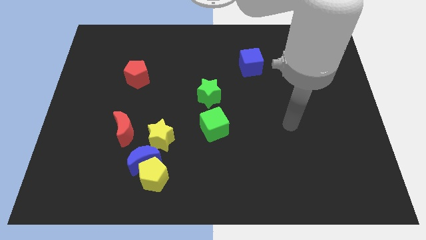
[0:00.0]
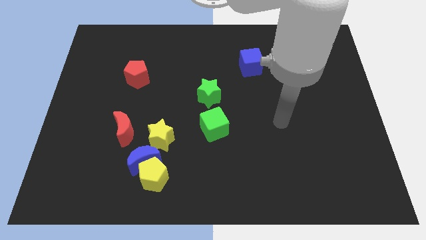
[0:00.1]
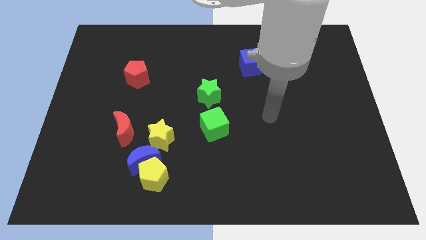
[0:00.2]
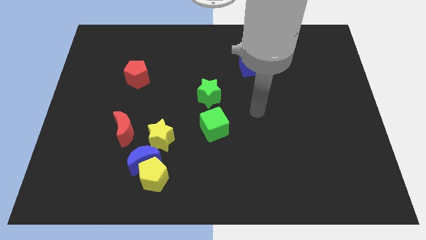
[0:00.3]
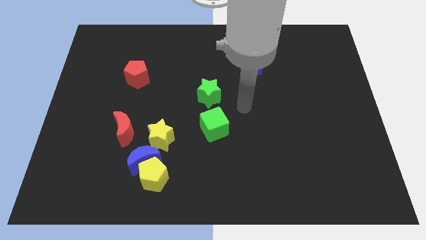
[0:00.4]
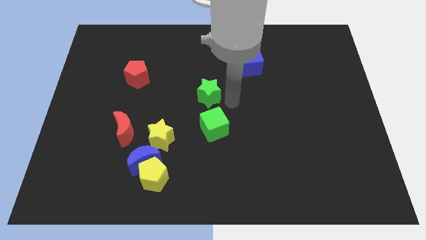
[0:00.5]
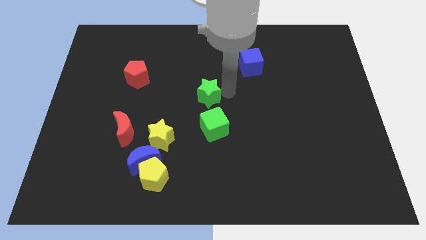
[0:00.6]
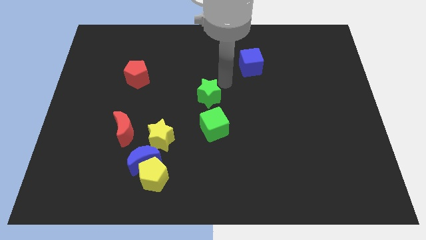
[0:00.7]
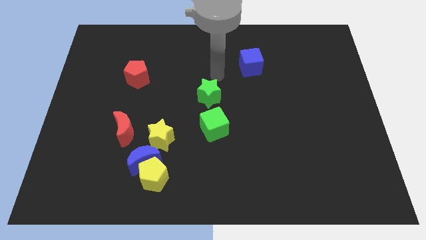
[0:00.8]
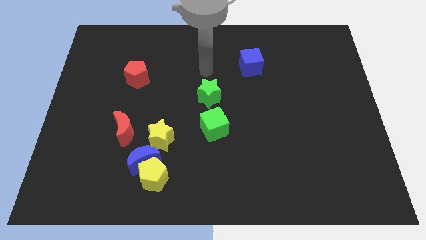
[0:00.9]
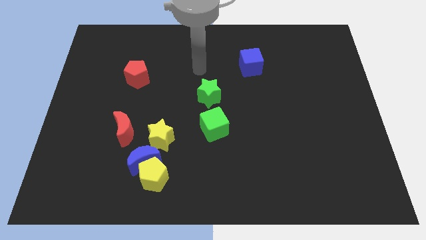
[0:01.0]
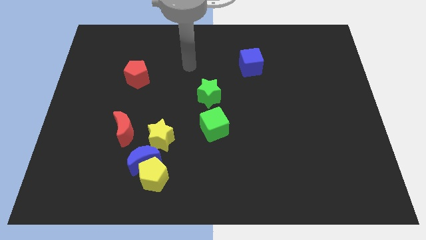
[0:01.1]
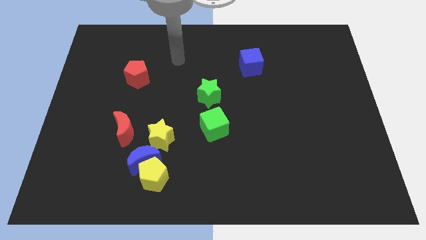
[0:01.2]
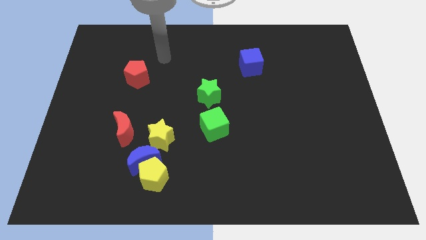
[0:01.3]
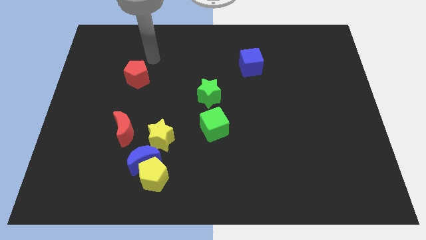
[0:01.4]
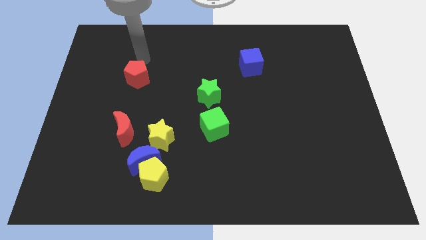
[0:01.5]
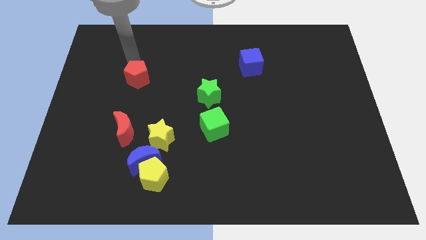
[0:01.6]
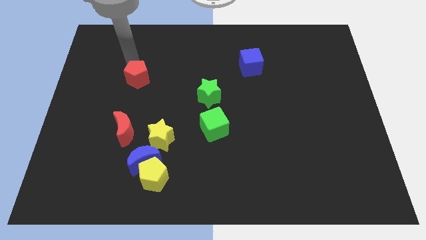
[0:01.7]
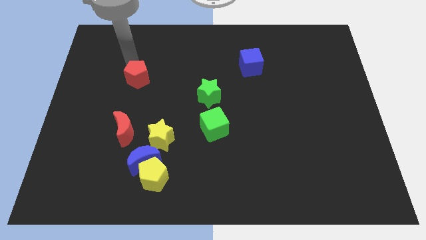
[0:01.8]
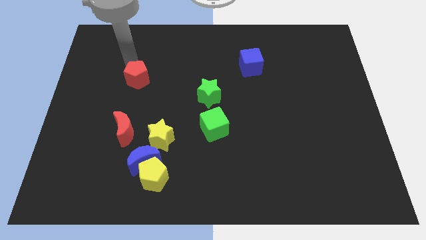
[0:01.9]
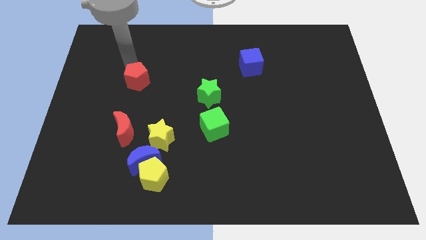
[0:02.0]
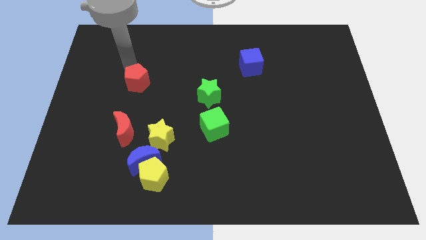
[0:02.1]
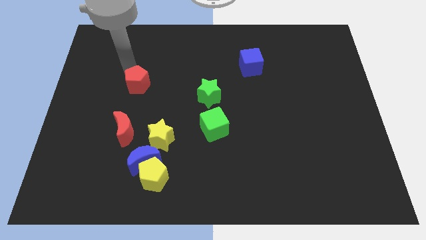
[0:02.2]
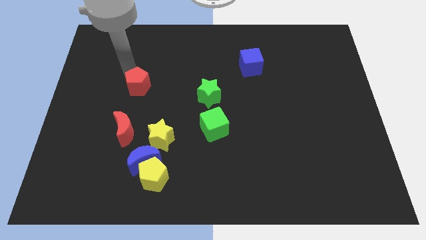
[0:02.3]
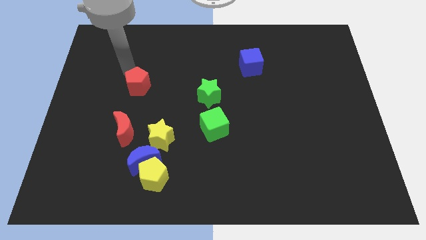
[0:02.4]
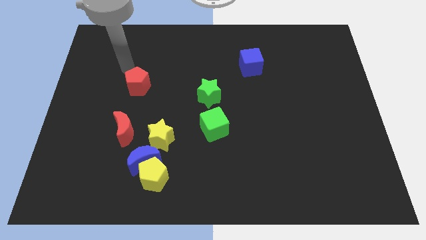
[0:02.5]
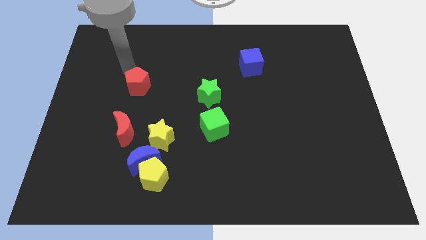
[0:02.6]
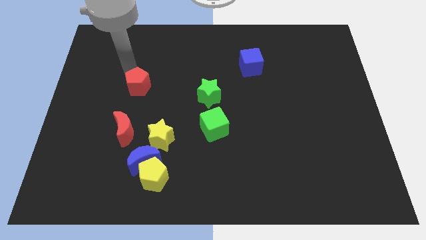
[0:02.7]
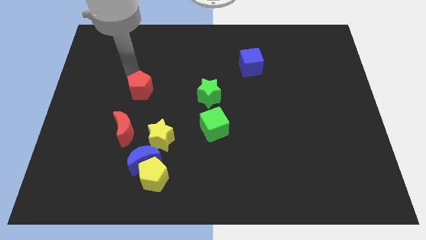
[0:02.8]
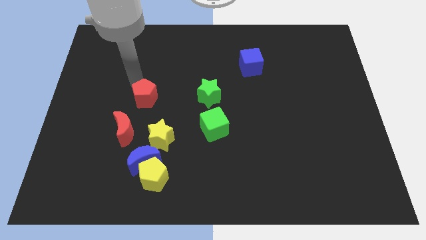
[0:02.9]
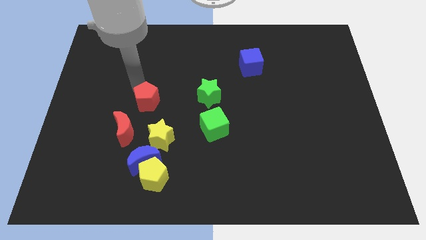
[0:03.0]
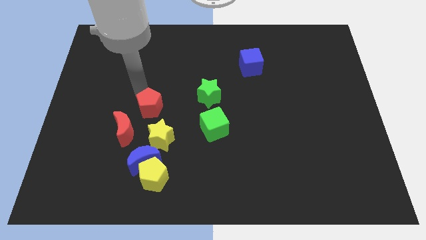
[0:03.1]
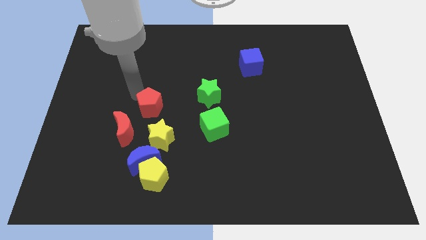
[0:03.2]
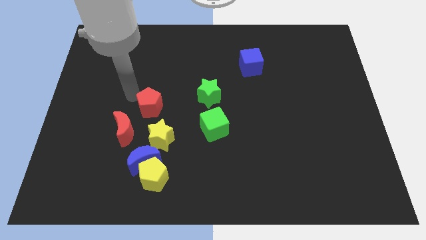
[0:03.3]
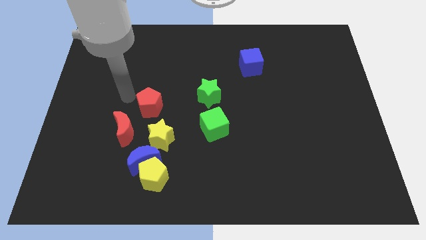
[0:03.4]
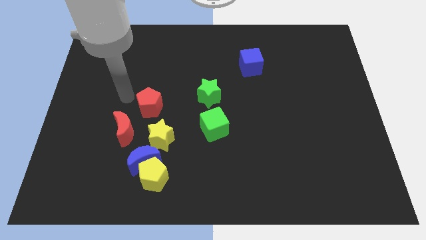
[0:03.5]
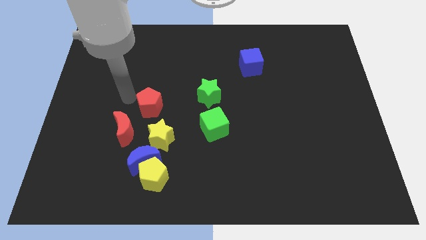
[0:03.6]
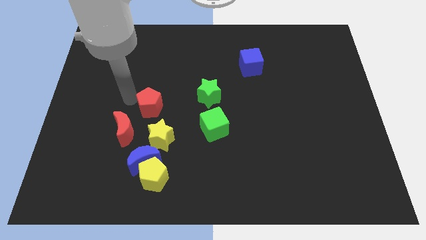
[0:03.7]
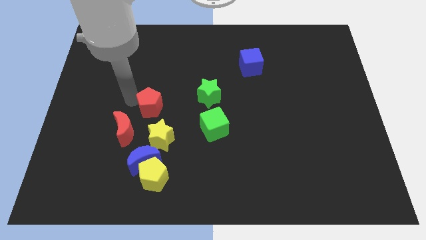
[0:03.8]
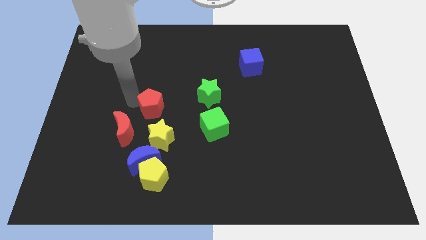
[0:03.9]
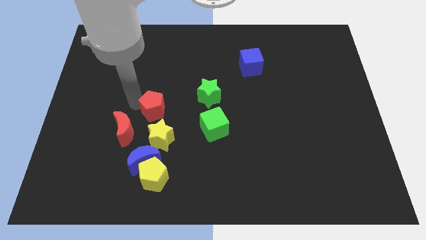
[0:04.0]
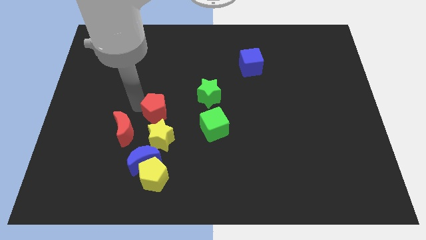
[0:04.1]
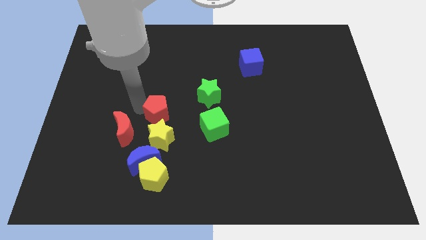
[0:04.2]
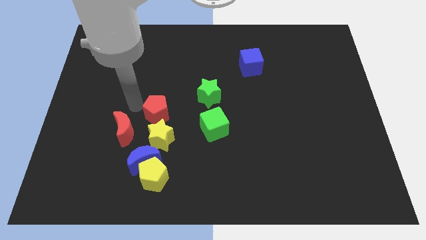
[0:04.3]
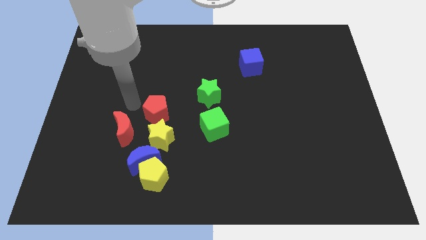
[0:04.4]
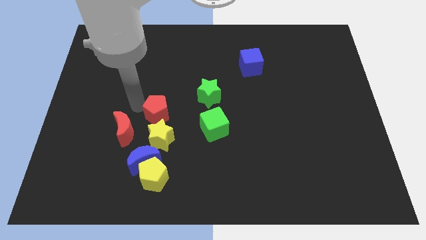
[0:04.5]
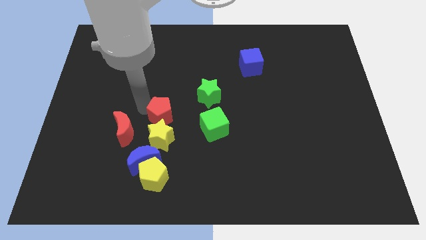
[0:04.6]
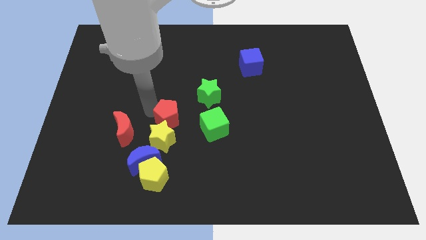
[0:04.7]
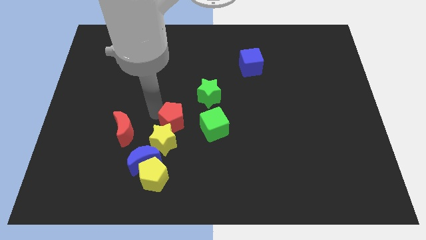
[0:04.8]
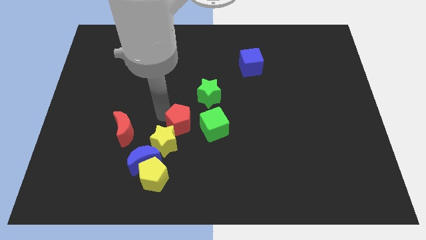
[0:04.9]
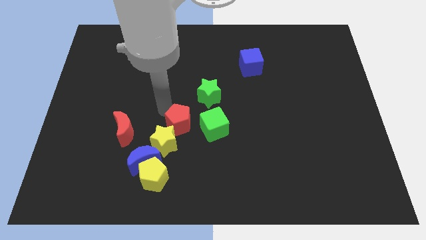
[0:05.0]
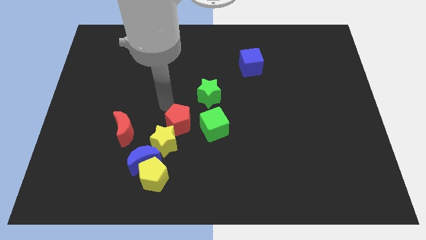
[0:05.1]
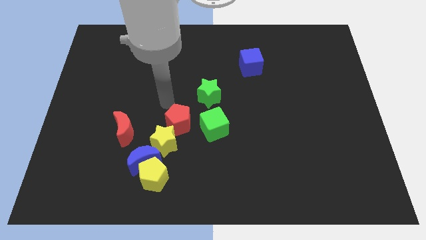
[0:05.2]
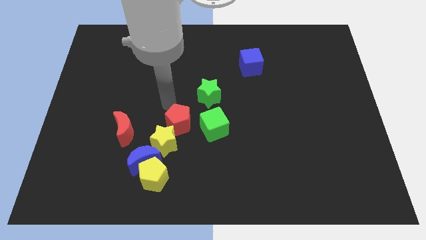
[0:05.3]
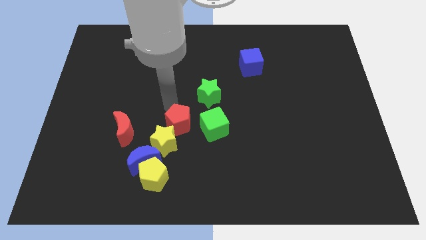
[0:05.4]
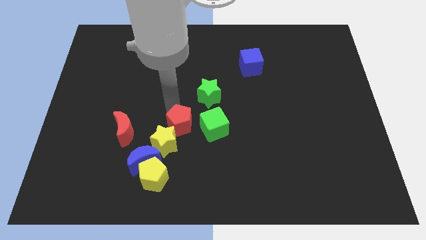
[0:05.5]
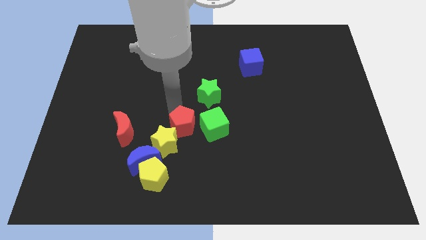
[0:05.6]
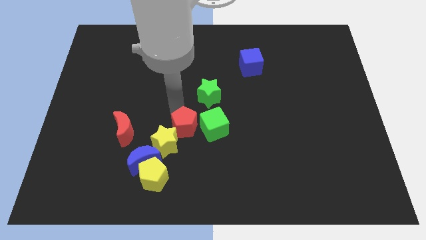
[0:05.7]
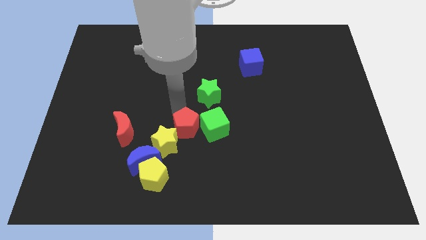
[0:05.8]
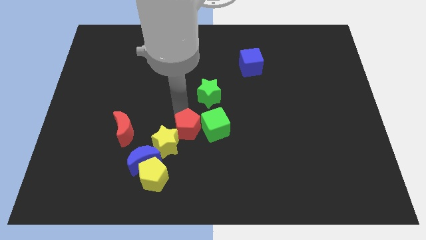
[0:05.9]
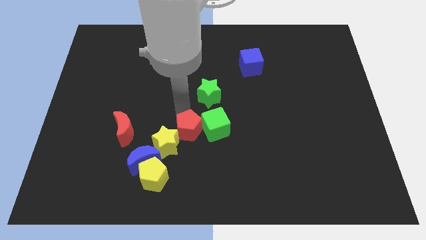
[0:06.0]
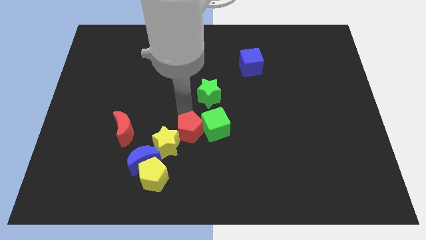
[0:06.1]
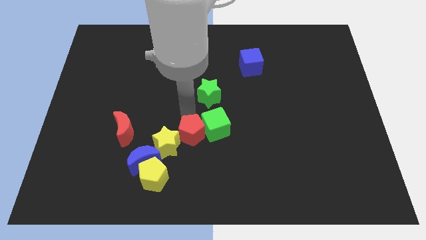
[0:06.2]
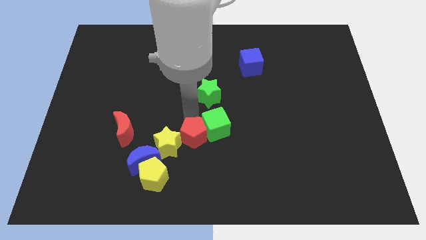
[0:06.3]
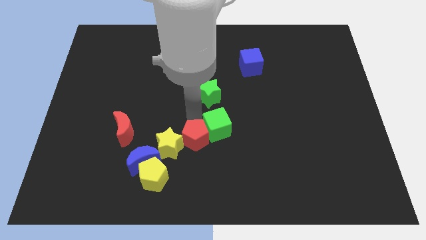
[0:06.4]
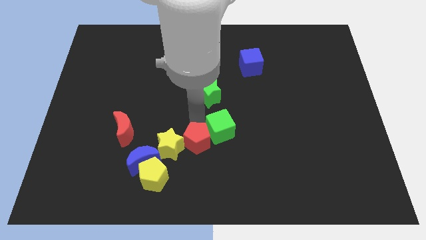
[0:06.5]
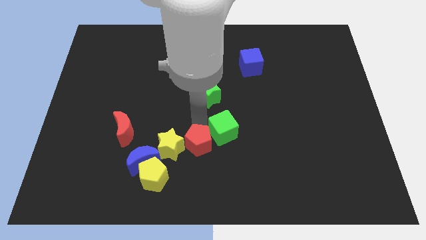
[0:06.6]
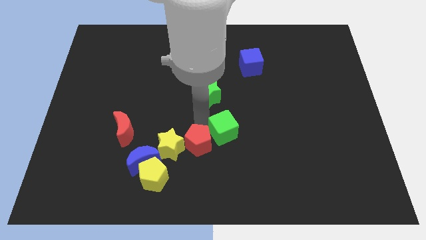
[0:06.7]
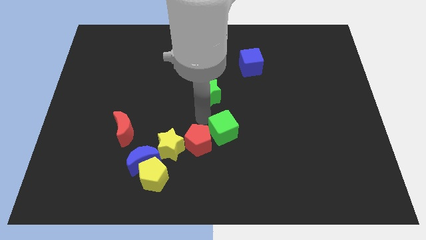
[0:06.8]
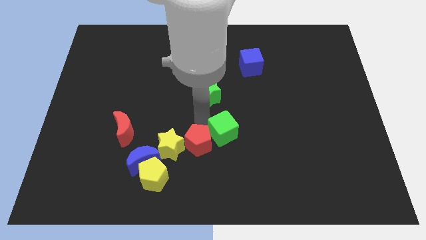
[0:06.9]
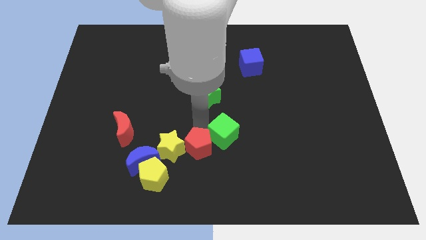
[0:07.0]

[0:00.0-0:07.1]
put the red pentagon to the bottom right of the yellow star

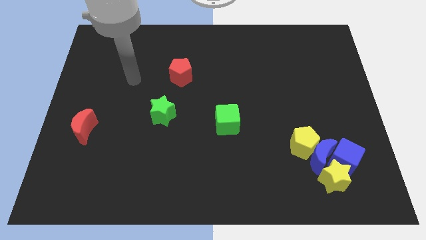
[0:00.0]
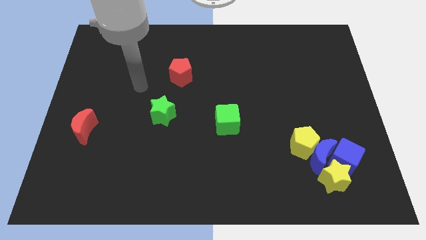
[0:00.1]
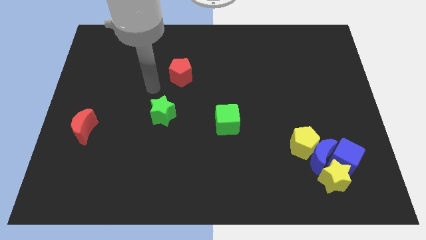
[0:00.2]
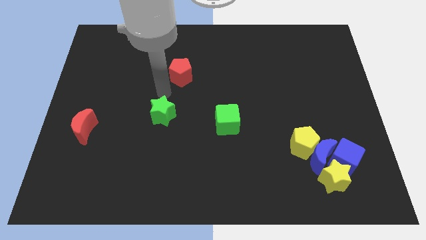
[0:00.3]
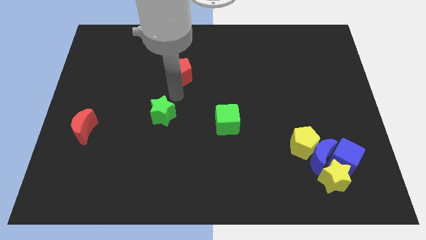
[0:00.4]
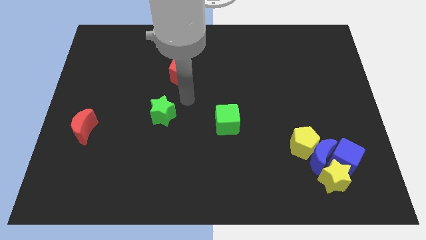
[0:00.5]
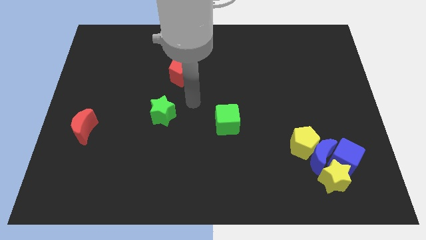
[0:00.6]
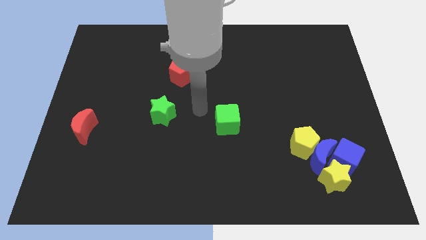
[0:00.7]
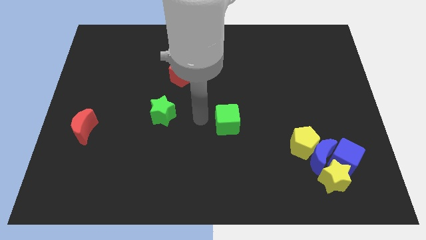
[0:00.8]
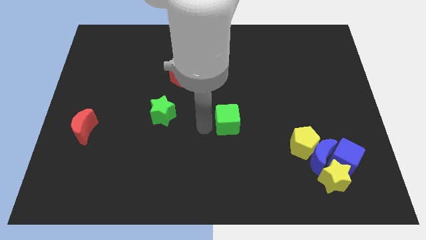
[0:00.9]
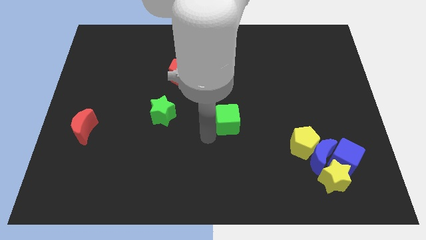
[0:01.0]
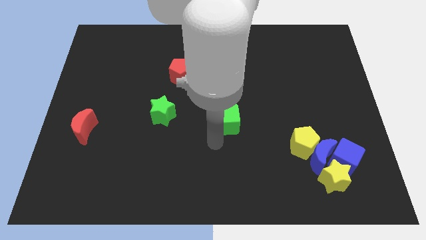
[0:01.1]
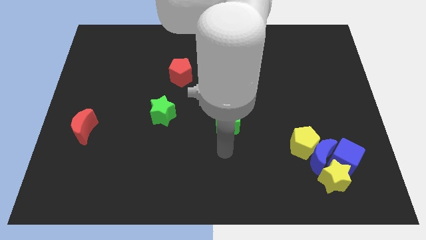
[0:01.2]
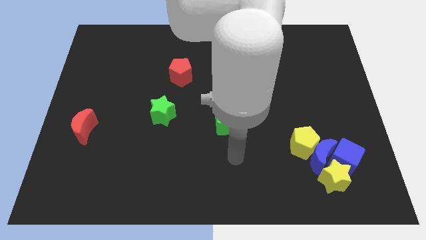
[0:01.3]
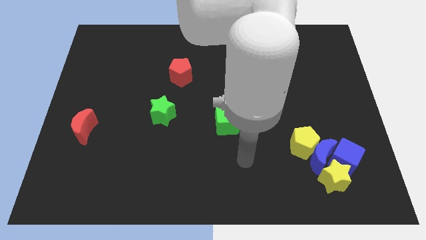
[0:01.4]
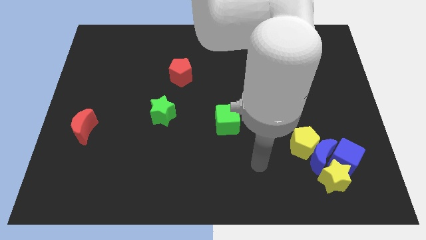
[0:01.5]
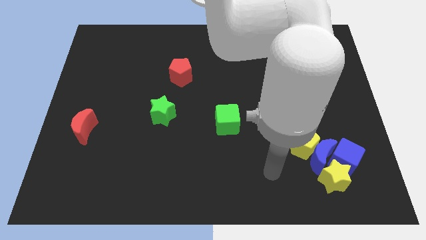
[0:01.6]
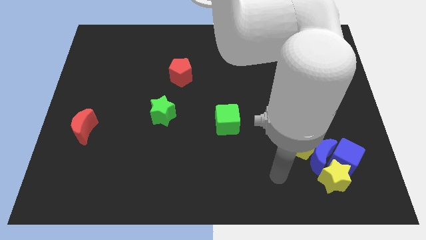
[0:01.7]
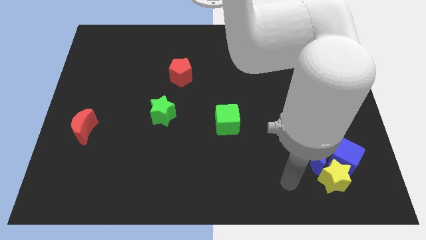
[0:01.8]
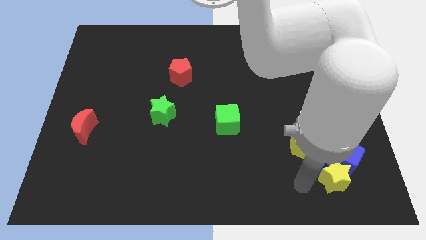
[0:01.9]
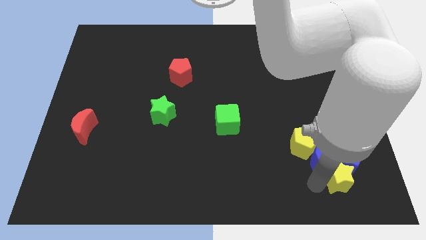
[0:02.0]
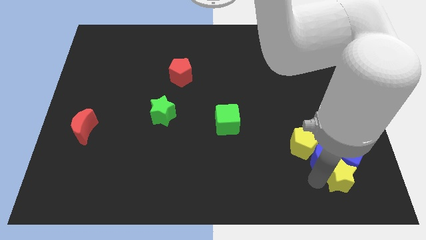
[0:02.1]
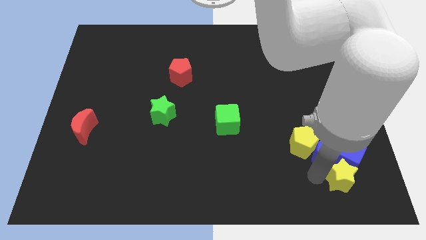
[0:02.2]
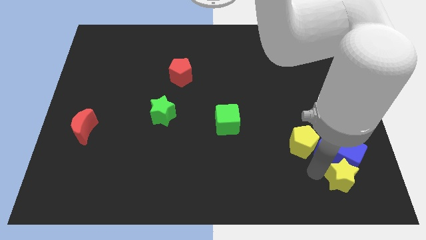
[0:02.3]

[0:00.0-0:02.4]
move the blue moon diagonally up and to the right of the yellow pentagon
